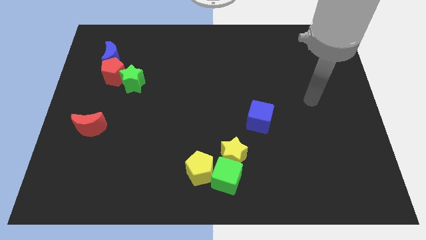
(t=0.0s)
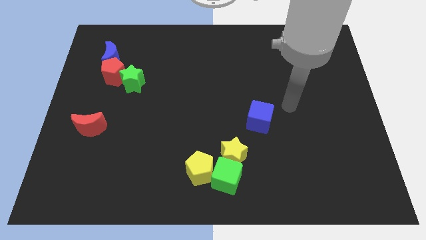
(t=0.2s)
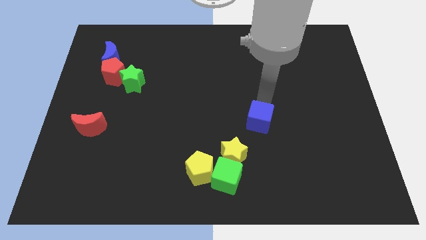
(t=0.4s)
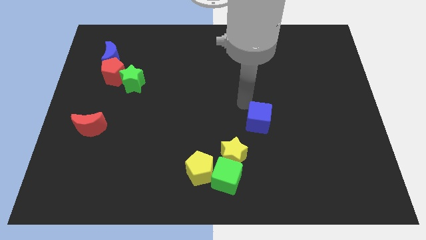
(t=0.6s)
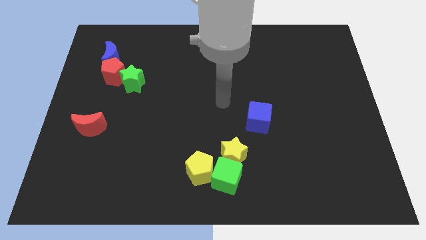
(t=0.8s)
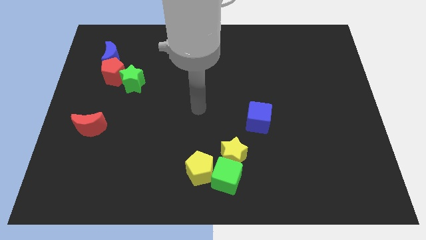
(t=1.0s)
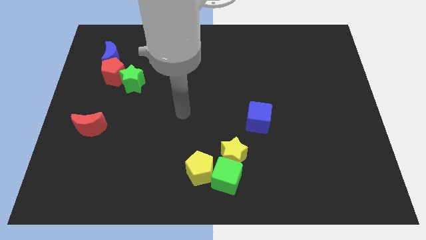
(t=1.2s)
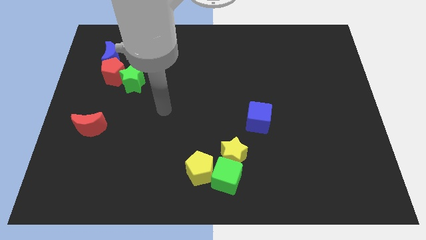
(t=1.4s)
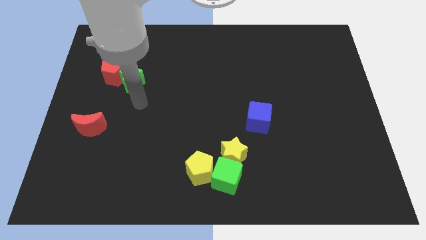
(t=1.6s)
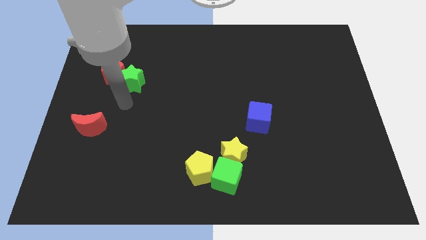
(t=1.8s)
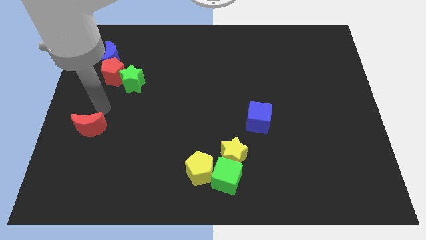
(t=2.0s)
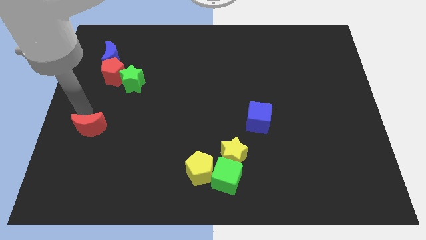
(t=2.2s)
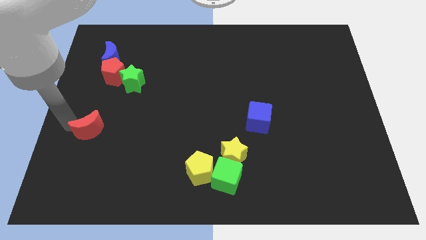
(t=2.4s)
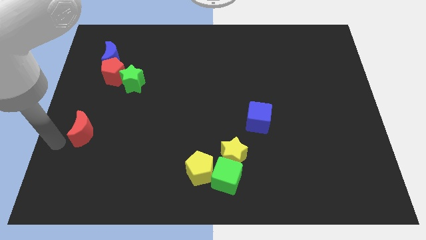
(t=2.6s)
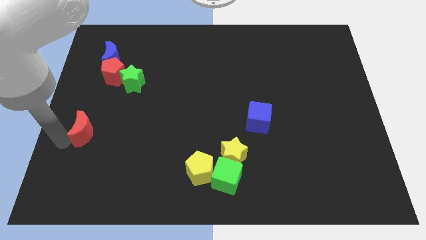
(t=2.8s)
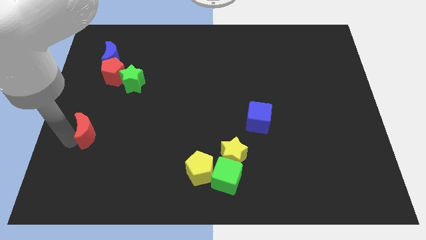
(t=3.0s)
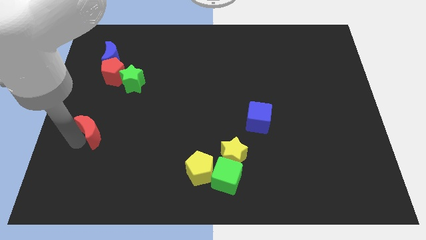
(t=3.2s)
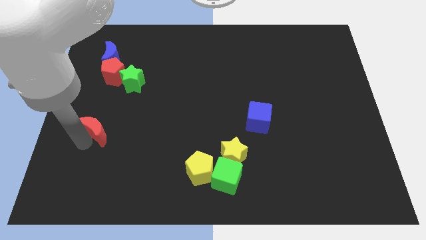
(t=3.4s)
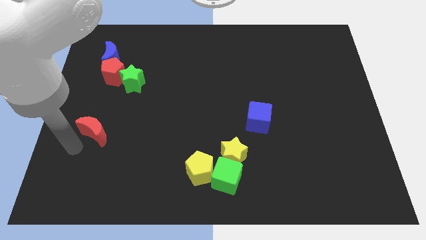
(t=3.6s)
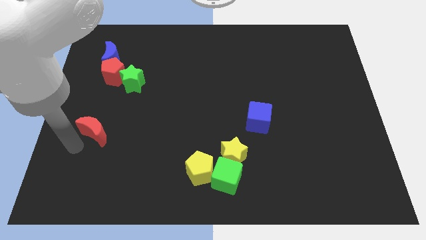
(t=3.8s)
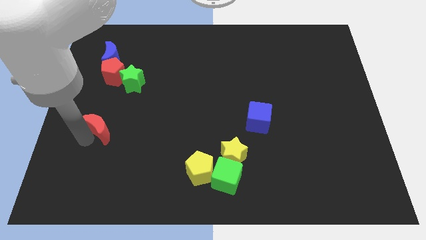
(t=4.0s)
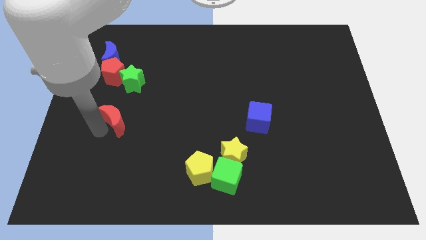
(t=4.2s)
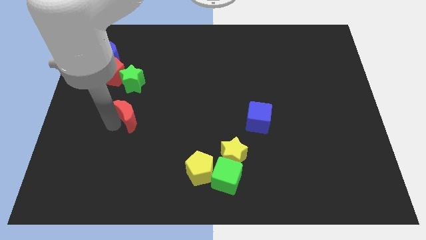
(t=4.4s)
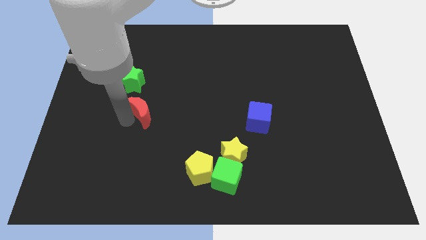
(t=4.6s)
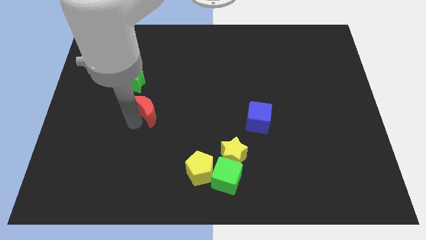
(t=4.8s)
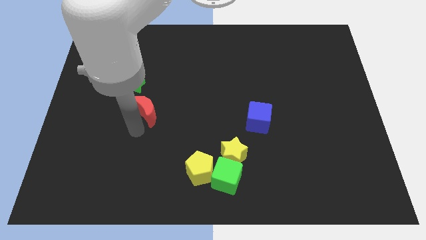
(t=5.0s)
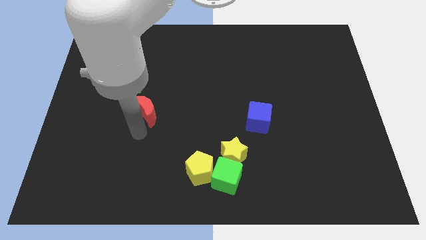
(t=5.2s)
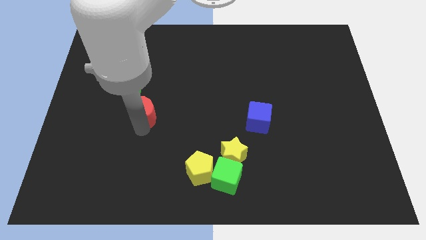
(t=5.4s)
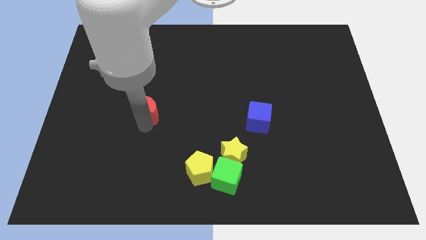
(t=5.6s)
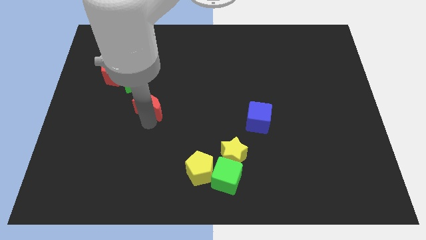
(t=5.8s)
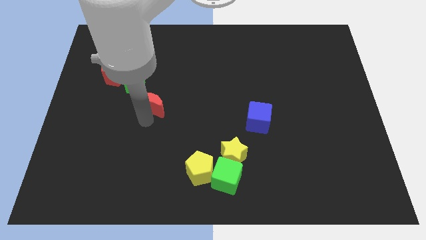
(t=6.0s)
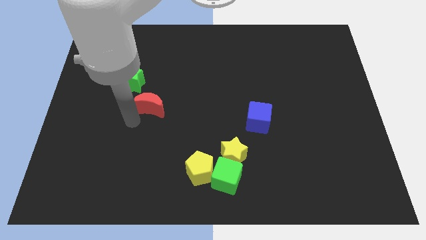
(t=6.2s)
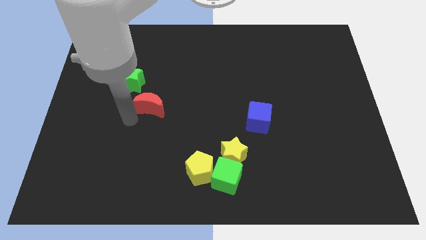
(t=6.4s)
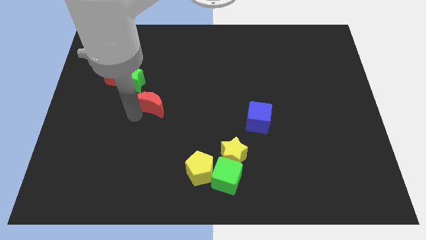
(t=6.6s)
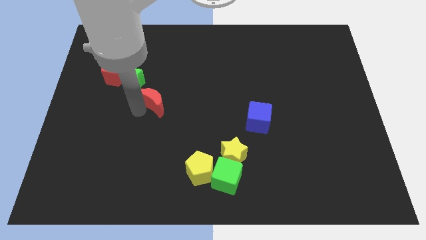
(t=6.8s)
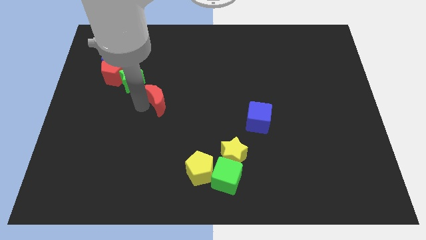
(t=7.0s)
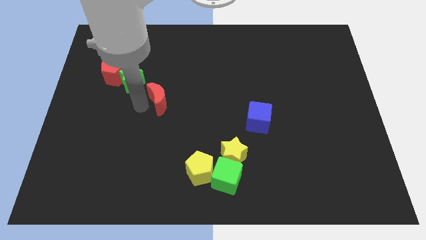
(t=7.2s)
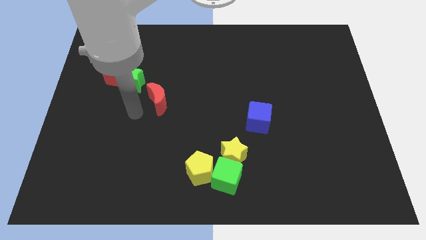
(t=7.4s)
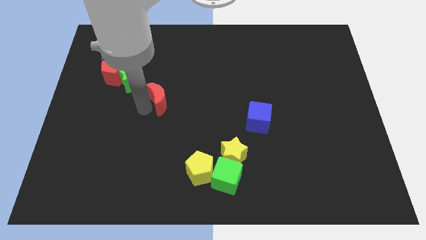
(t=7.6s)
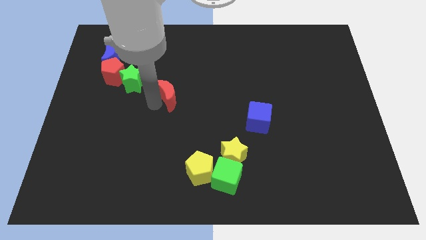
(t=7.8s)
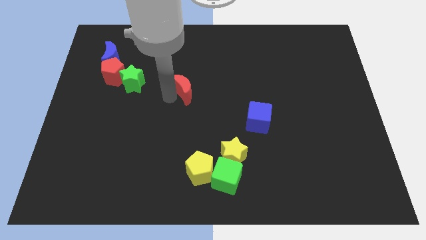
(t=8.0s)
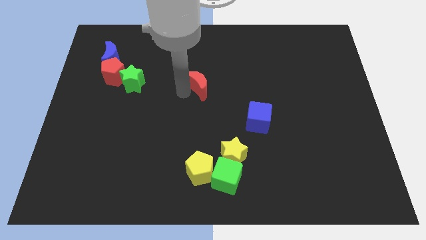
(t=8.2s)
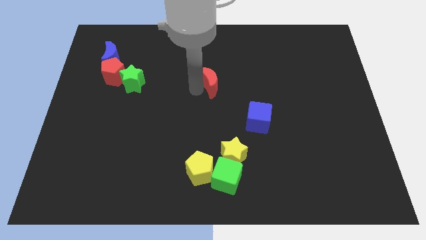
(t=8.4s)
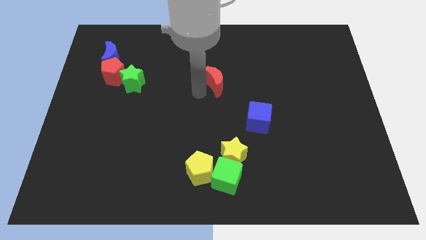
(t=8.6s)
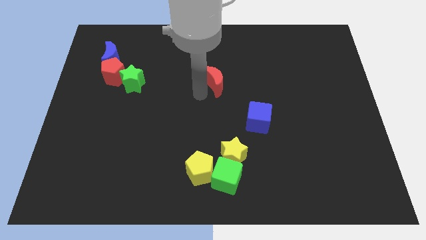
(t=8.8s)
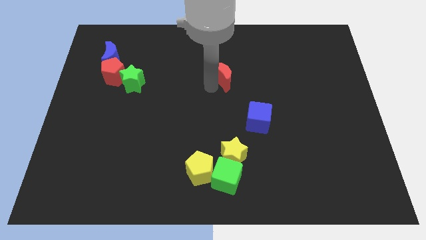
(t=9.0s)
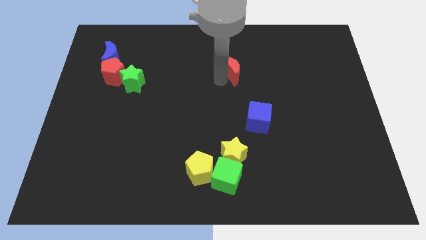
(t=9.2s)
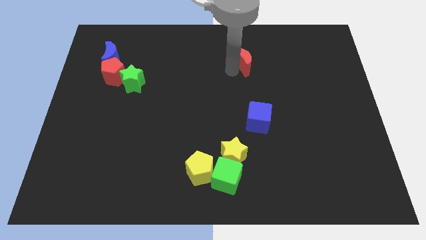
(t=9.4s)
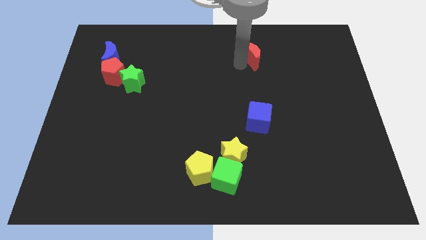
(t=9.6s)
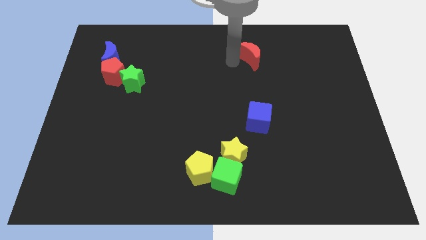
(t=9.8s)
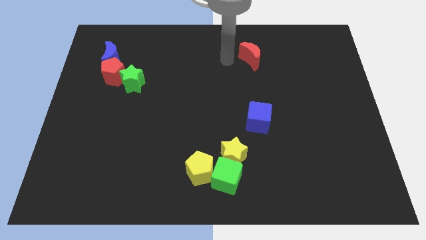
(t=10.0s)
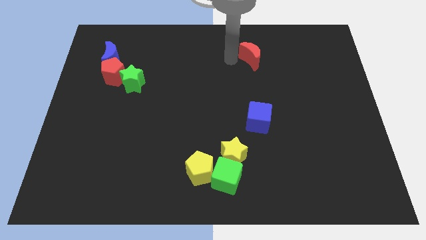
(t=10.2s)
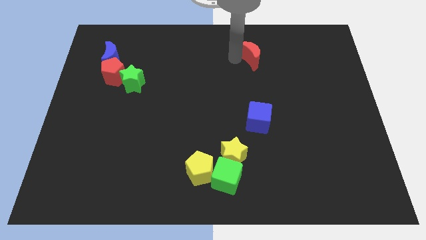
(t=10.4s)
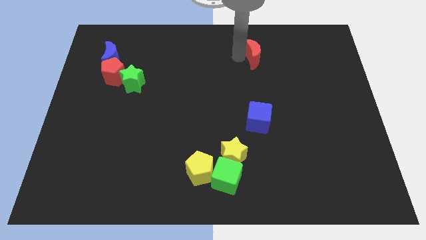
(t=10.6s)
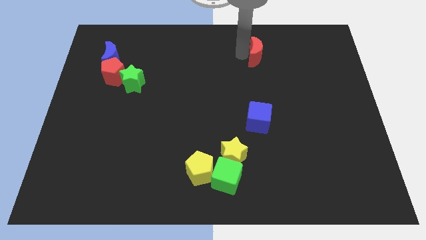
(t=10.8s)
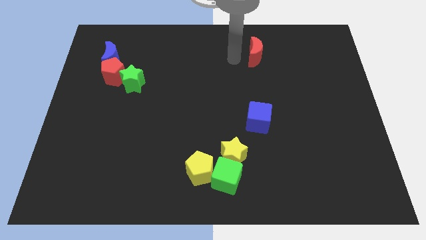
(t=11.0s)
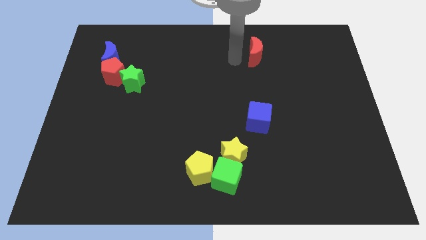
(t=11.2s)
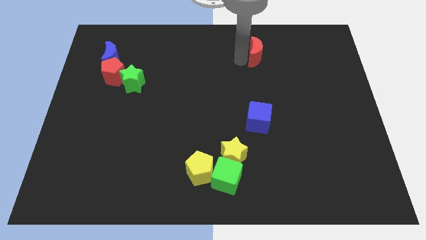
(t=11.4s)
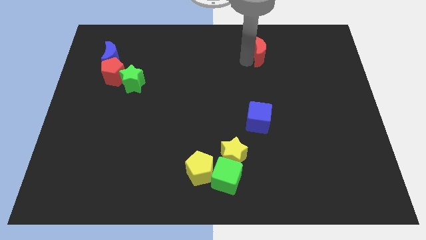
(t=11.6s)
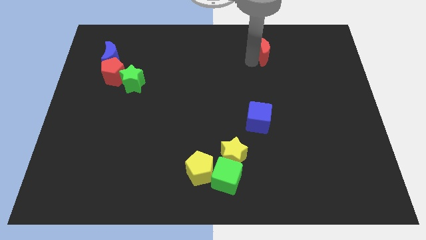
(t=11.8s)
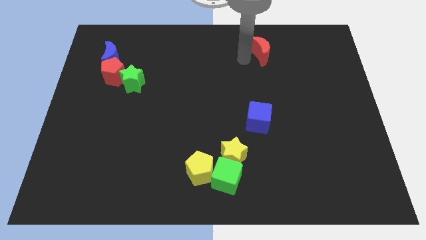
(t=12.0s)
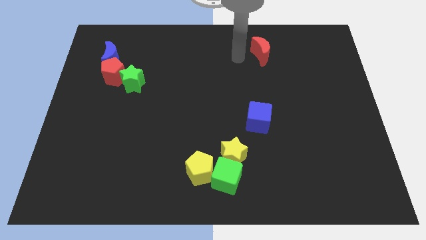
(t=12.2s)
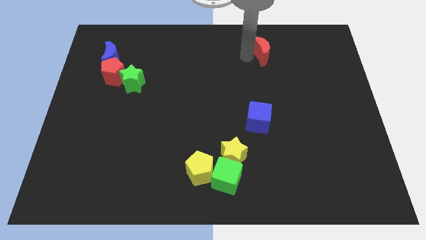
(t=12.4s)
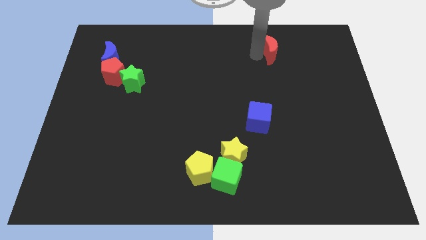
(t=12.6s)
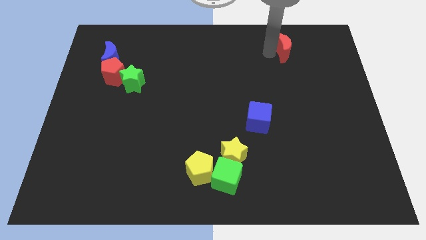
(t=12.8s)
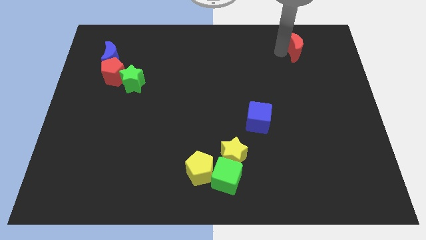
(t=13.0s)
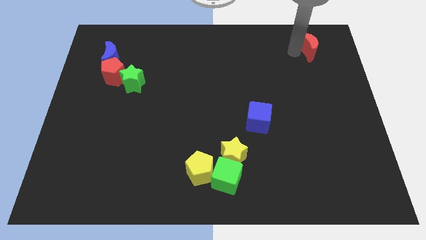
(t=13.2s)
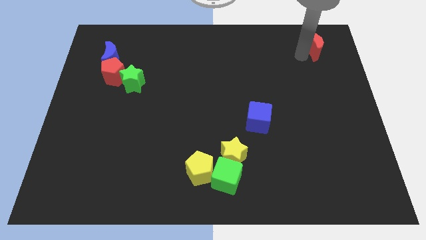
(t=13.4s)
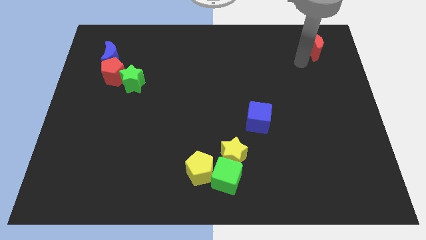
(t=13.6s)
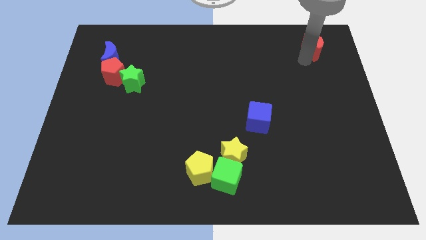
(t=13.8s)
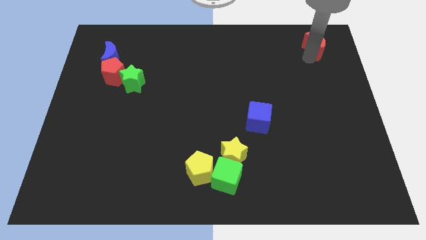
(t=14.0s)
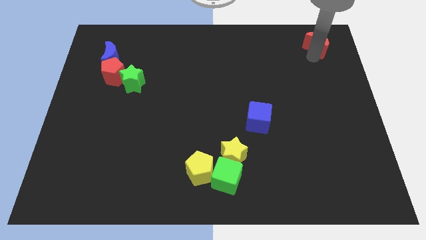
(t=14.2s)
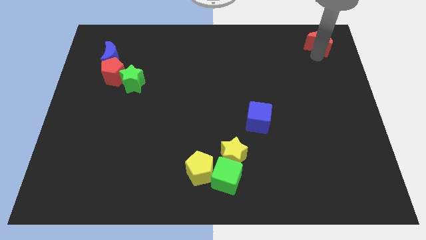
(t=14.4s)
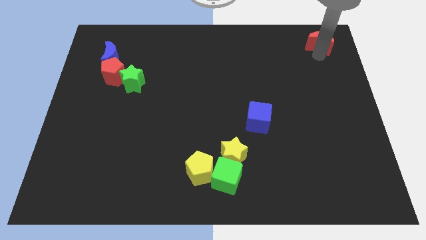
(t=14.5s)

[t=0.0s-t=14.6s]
slide the red moon to the top right
